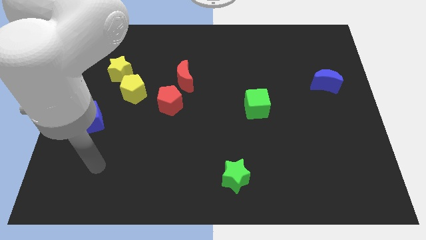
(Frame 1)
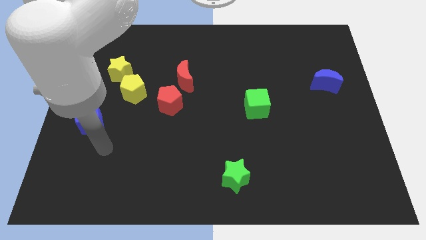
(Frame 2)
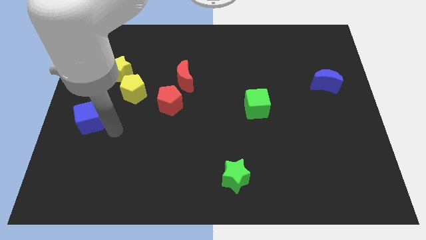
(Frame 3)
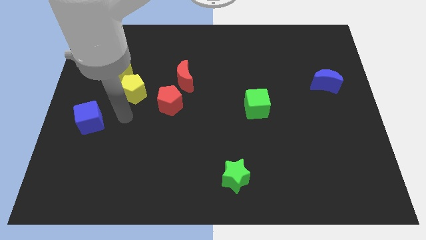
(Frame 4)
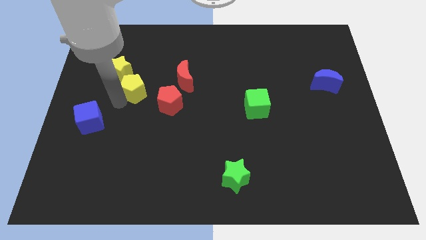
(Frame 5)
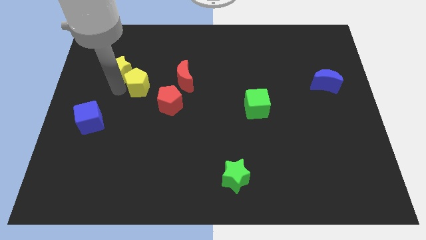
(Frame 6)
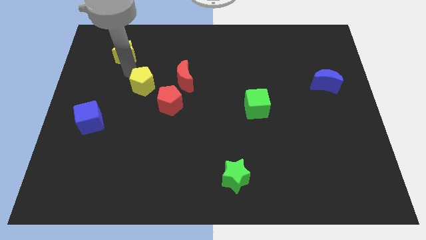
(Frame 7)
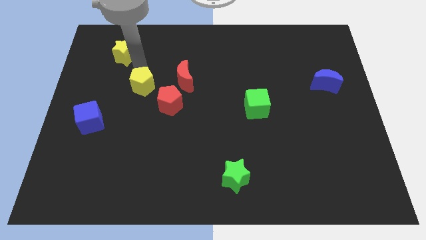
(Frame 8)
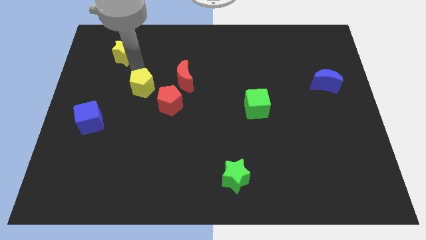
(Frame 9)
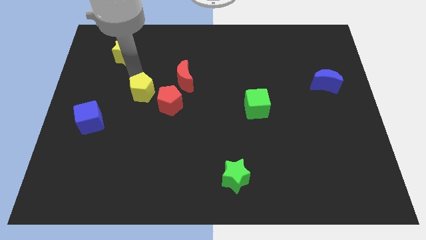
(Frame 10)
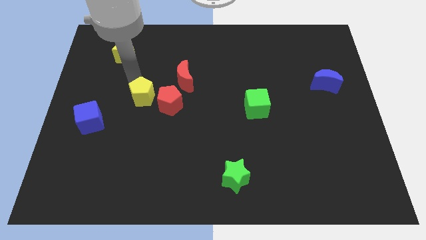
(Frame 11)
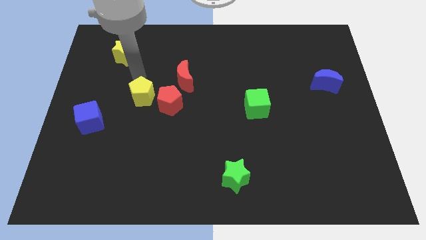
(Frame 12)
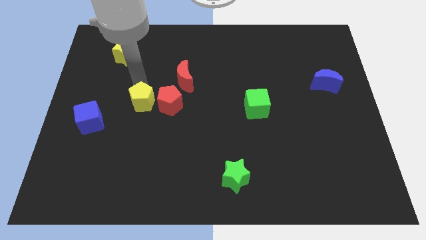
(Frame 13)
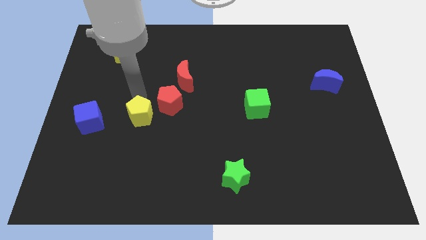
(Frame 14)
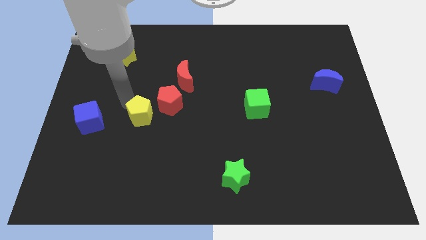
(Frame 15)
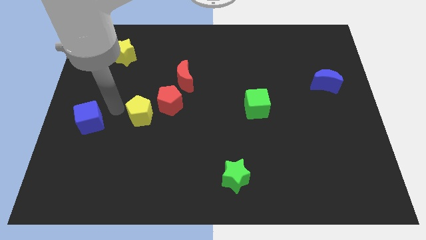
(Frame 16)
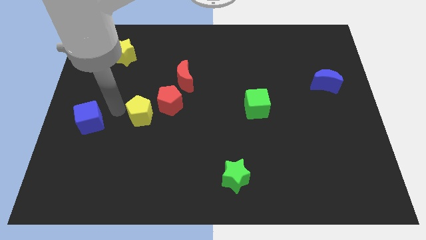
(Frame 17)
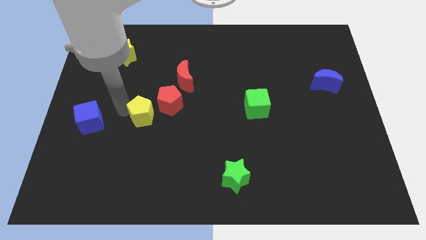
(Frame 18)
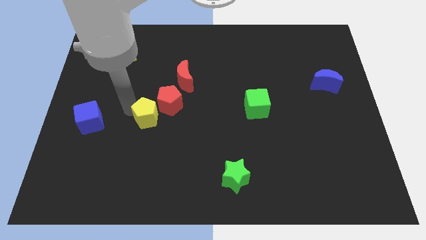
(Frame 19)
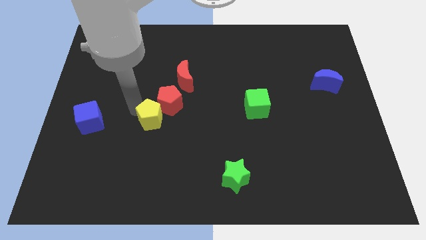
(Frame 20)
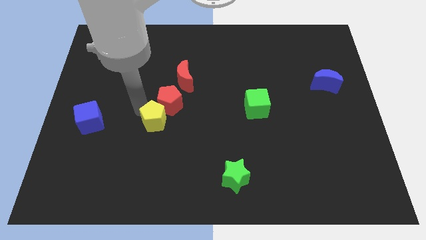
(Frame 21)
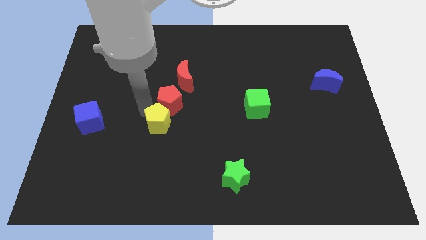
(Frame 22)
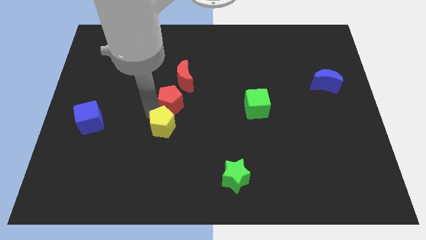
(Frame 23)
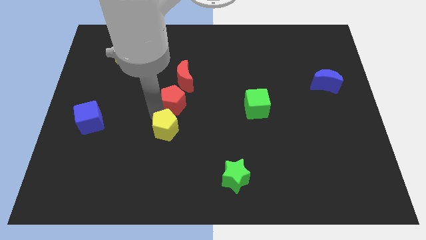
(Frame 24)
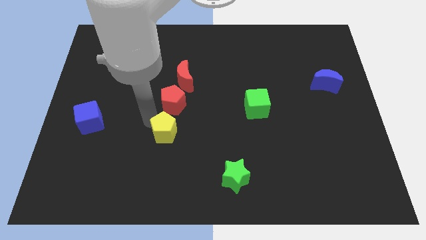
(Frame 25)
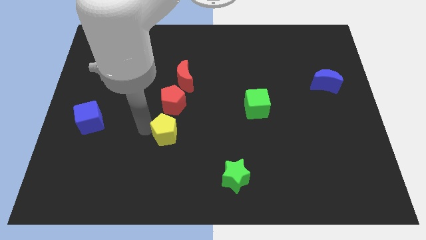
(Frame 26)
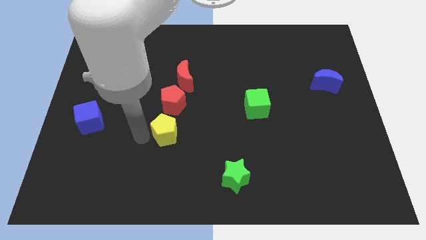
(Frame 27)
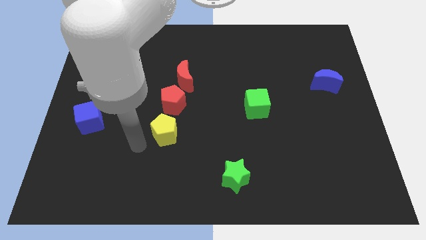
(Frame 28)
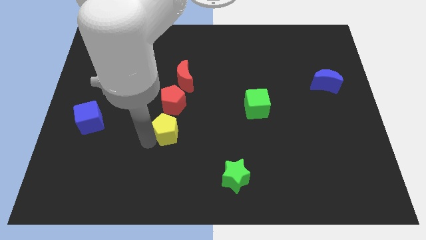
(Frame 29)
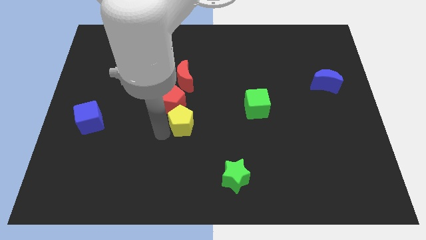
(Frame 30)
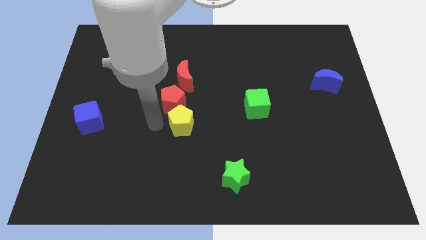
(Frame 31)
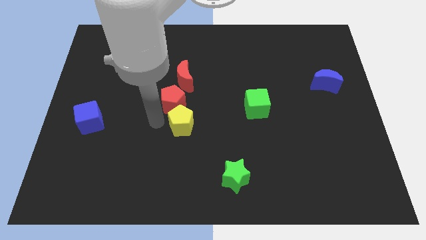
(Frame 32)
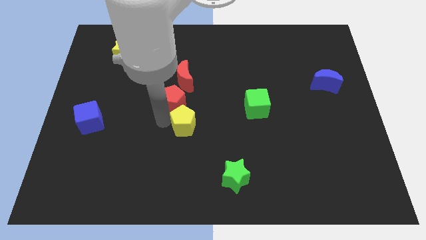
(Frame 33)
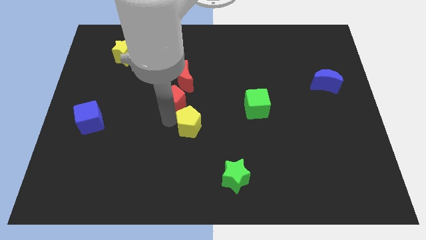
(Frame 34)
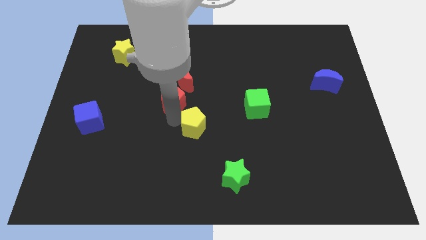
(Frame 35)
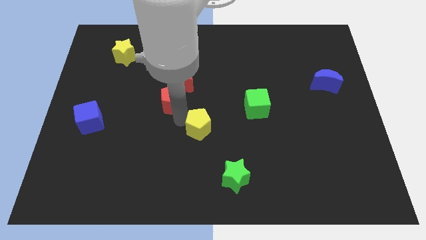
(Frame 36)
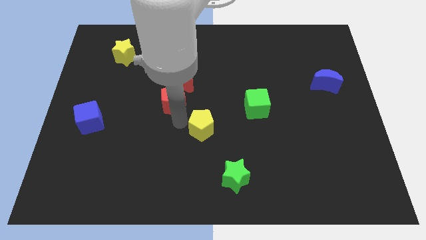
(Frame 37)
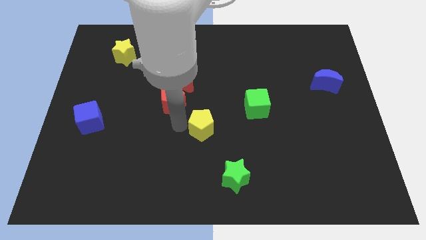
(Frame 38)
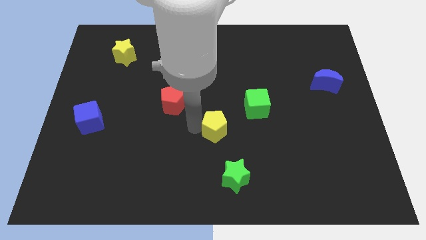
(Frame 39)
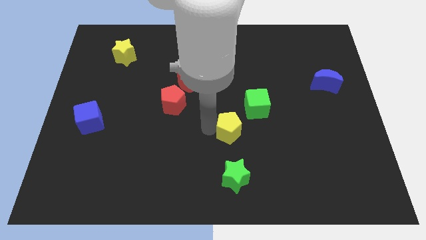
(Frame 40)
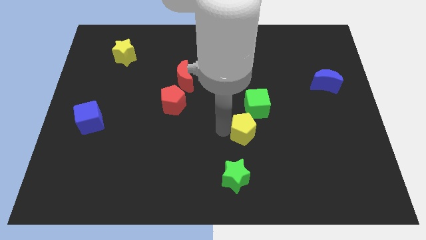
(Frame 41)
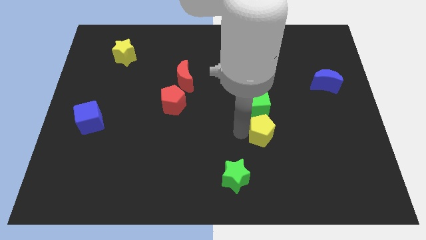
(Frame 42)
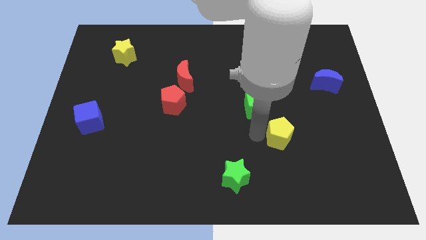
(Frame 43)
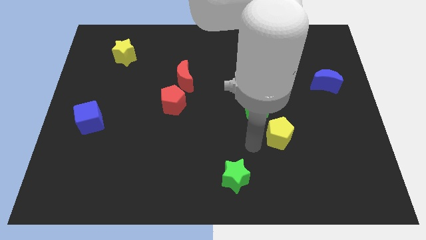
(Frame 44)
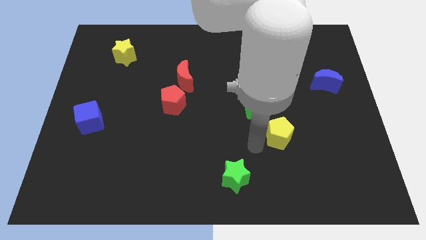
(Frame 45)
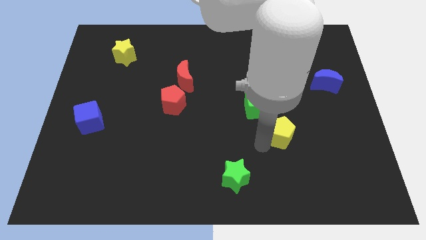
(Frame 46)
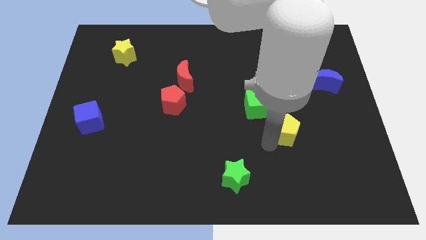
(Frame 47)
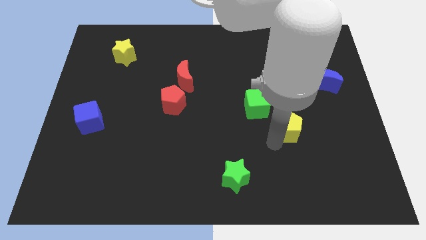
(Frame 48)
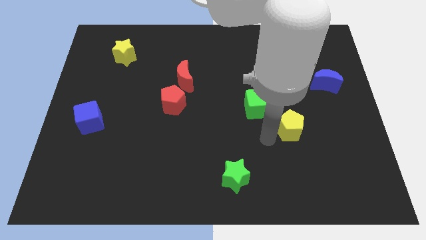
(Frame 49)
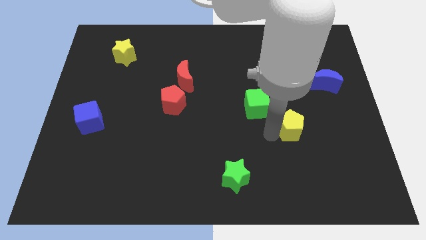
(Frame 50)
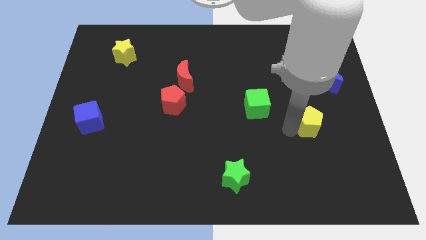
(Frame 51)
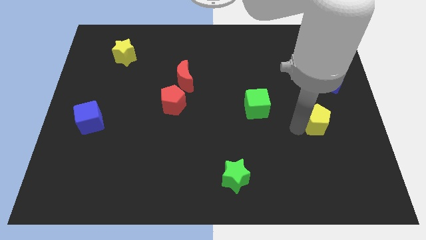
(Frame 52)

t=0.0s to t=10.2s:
slide the yellow pentagon below the blue moon

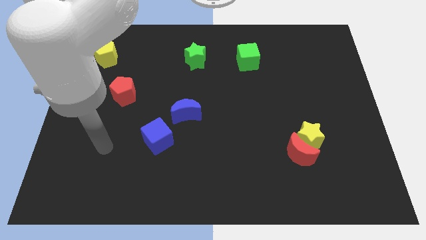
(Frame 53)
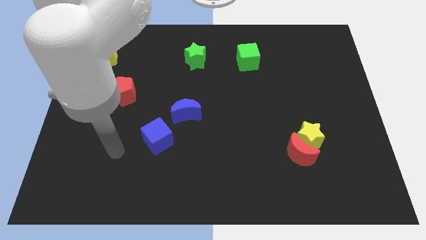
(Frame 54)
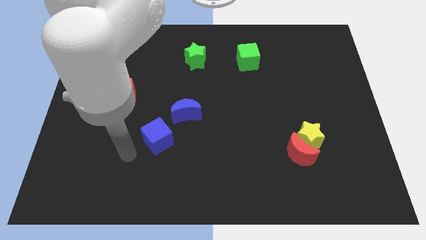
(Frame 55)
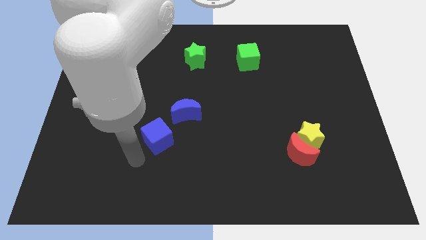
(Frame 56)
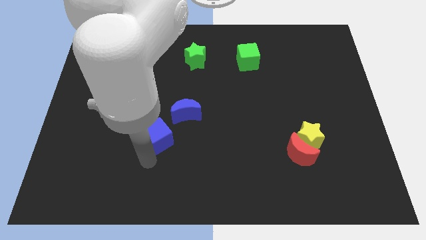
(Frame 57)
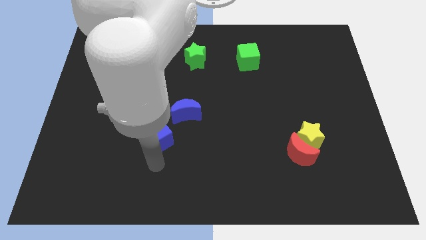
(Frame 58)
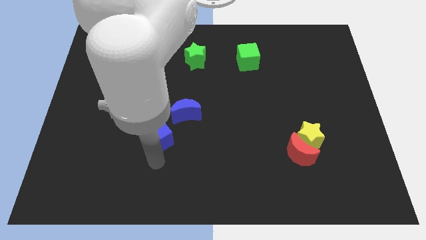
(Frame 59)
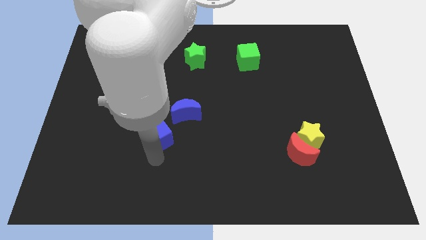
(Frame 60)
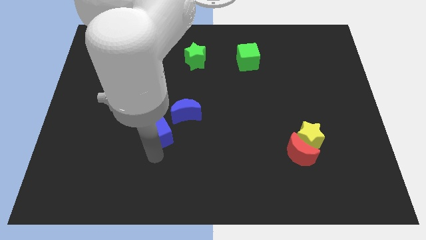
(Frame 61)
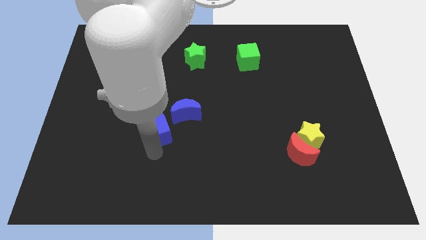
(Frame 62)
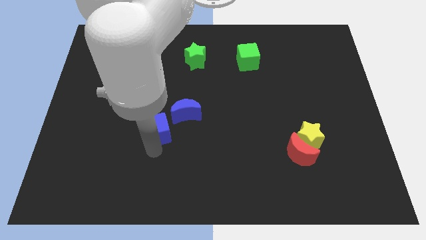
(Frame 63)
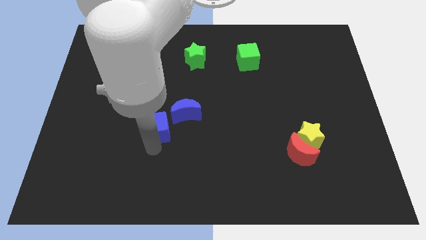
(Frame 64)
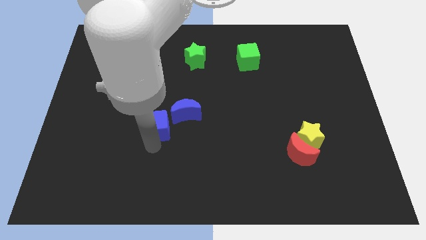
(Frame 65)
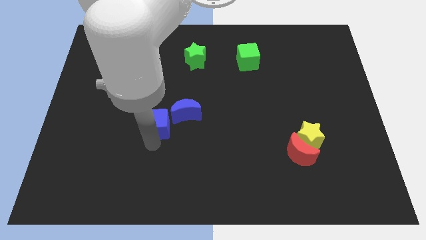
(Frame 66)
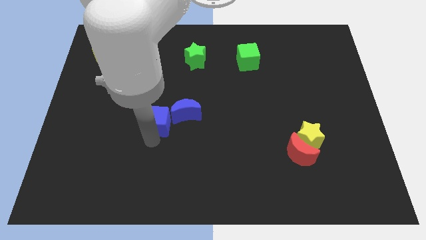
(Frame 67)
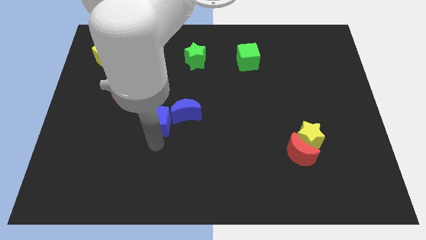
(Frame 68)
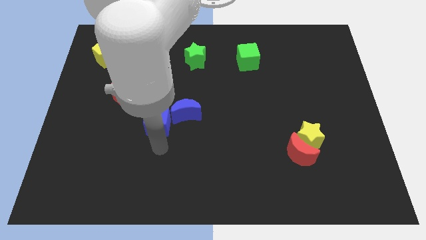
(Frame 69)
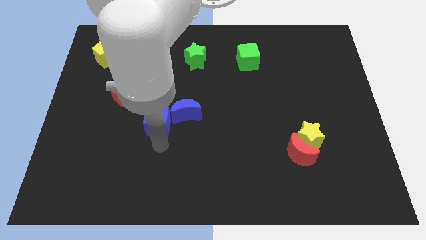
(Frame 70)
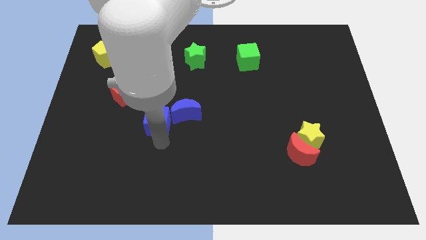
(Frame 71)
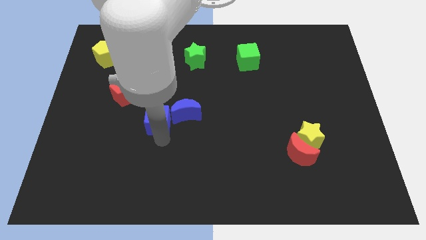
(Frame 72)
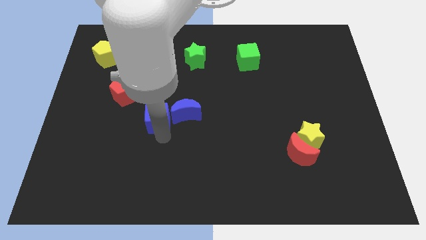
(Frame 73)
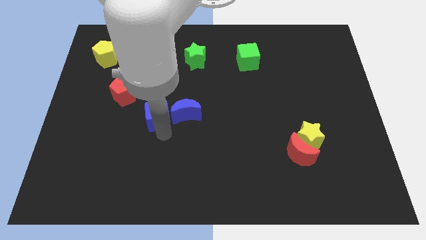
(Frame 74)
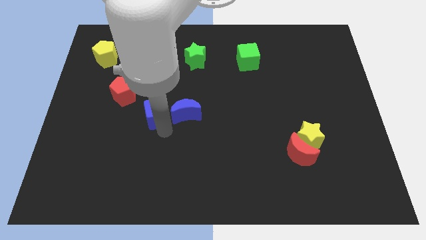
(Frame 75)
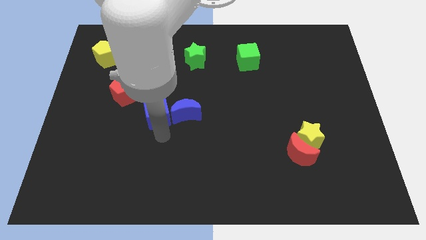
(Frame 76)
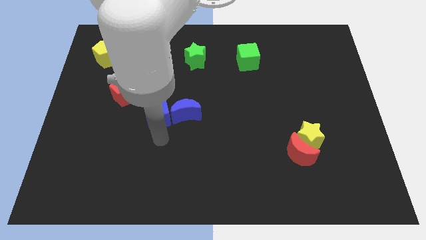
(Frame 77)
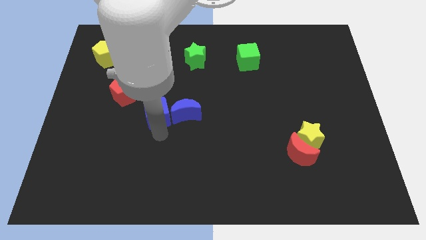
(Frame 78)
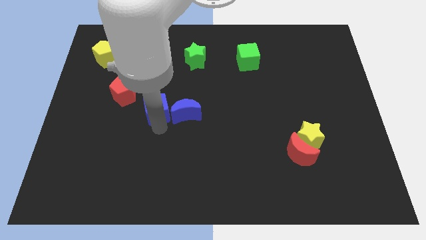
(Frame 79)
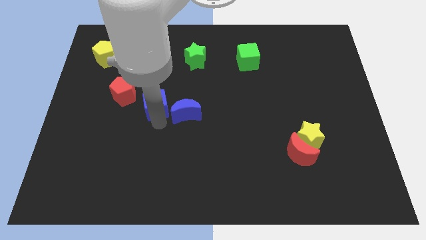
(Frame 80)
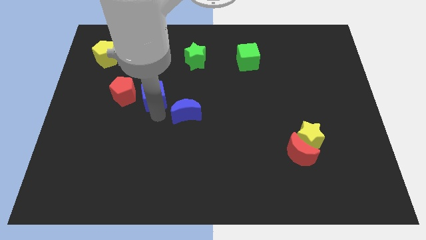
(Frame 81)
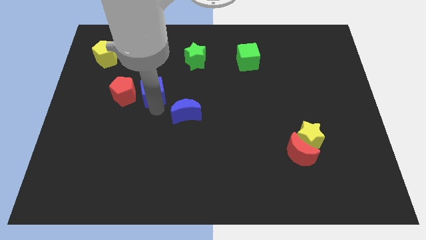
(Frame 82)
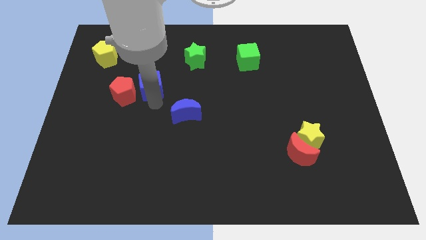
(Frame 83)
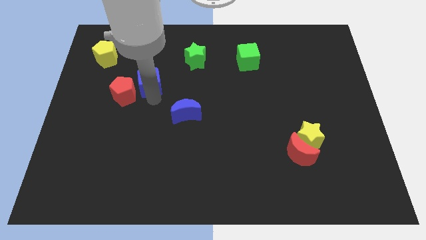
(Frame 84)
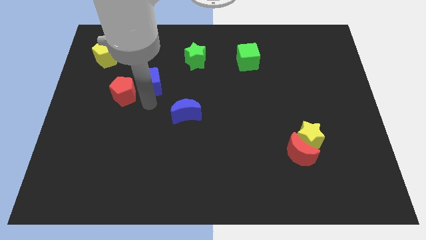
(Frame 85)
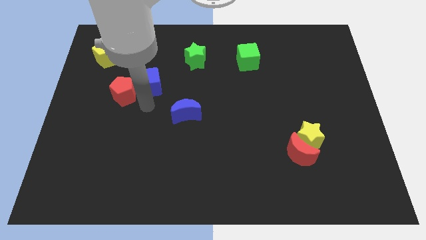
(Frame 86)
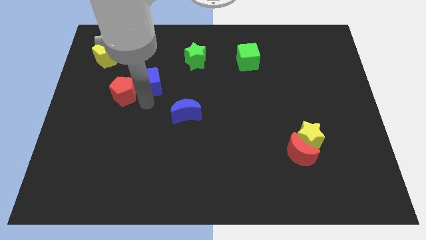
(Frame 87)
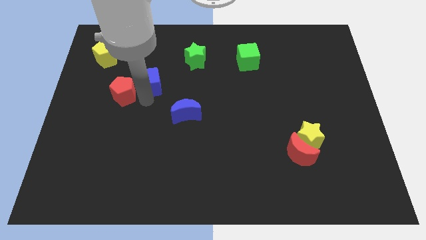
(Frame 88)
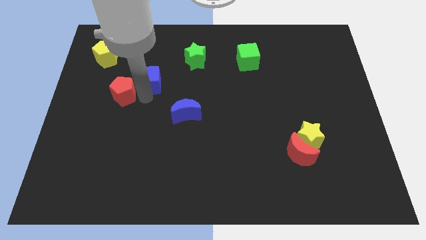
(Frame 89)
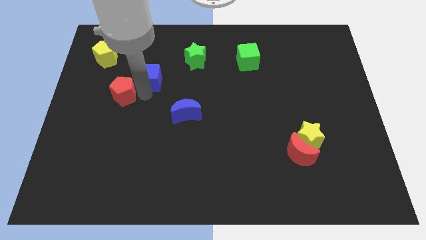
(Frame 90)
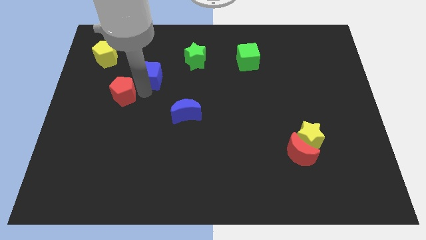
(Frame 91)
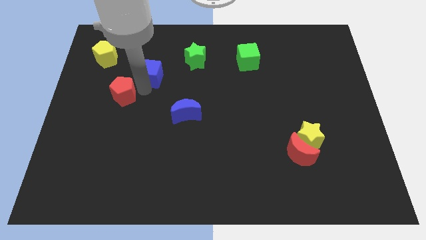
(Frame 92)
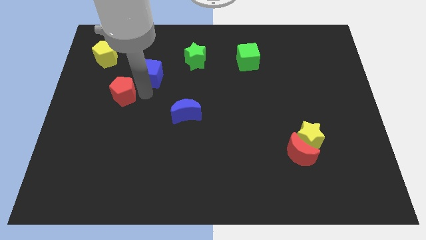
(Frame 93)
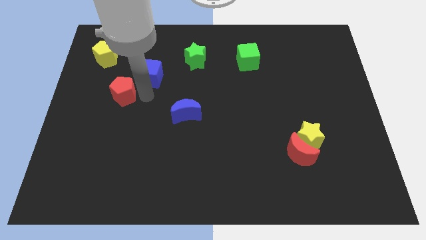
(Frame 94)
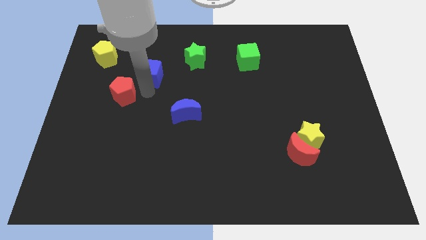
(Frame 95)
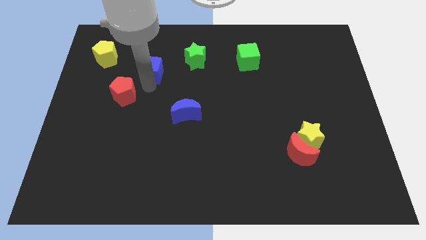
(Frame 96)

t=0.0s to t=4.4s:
push the blue cube just left of the green star
